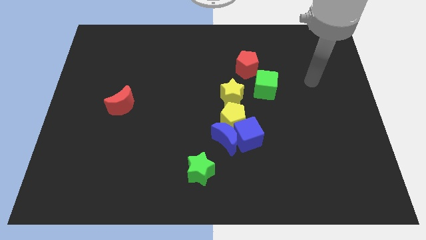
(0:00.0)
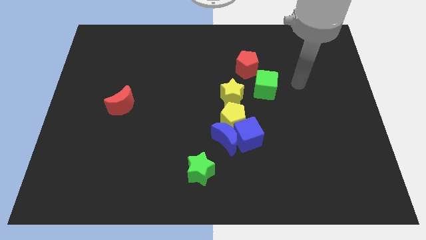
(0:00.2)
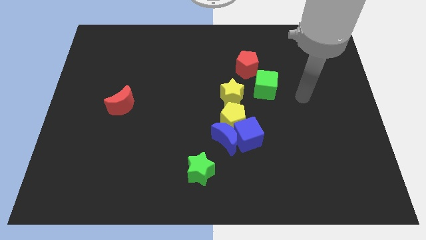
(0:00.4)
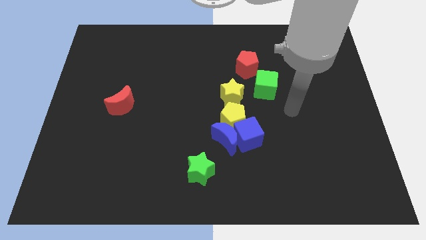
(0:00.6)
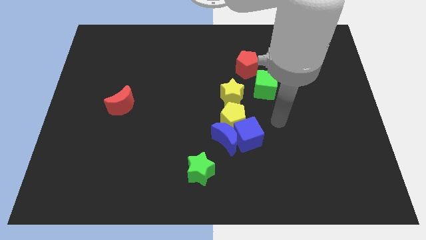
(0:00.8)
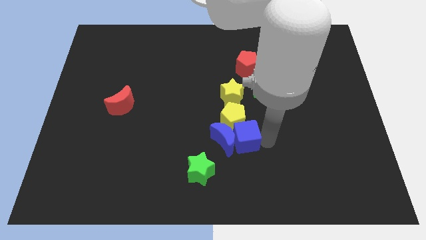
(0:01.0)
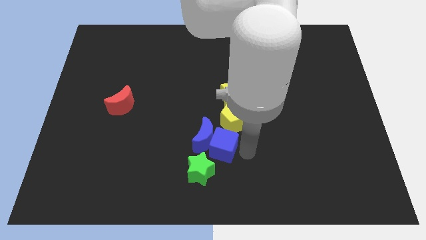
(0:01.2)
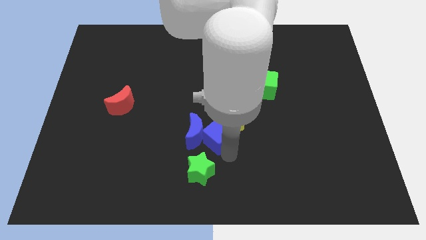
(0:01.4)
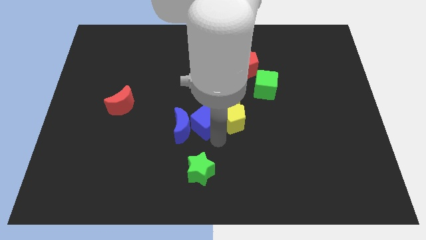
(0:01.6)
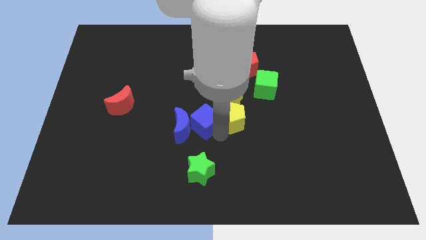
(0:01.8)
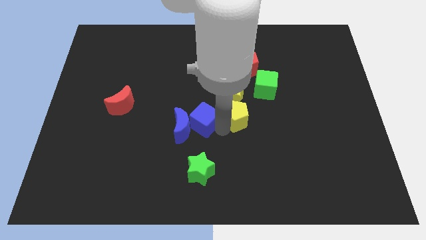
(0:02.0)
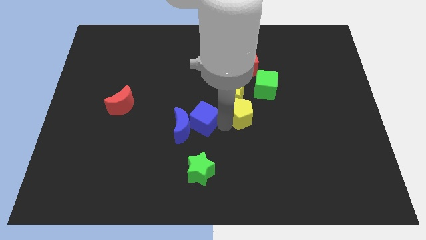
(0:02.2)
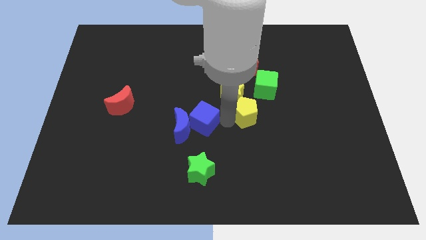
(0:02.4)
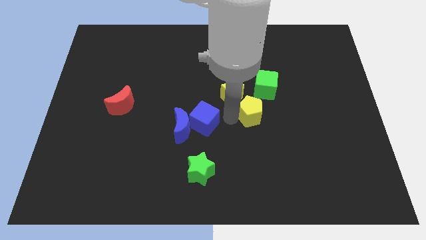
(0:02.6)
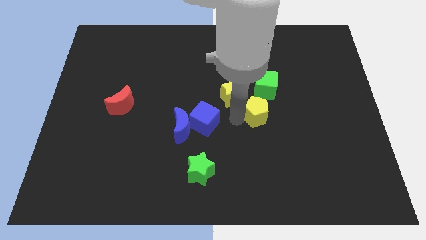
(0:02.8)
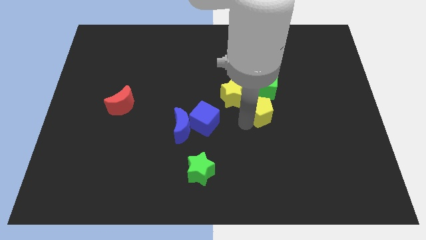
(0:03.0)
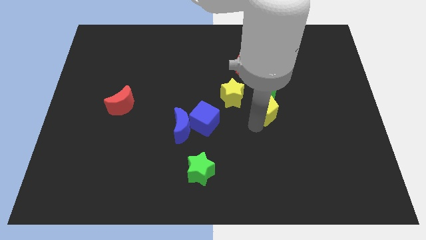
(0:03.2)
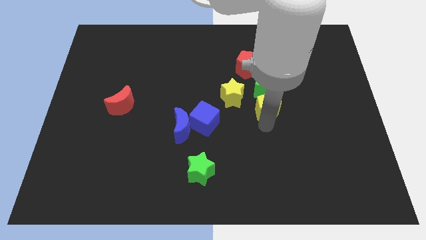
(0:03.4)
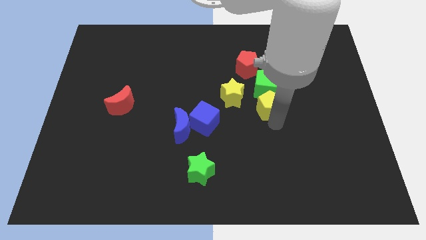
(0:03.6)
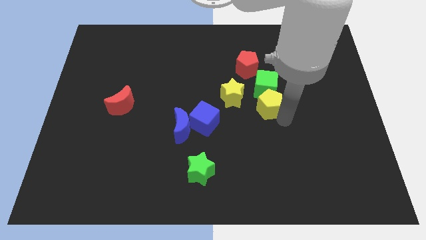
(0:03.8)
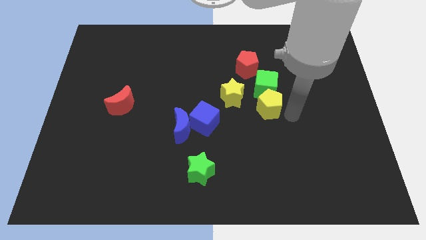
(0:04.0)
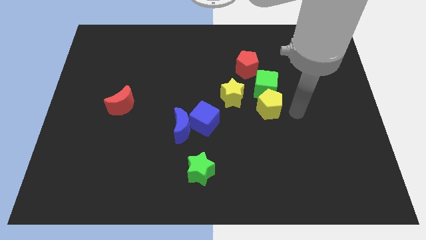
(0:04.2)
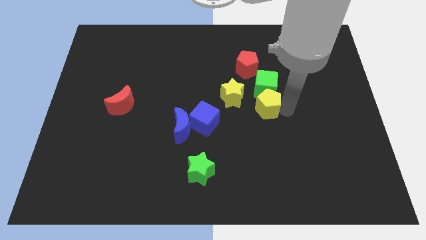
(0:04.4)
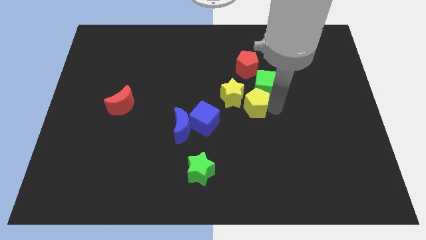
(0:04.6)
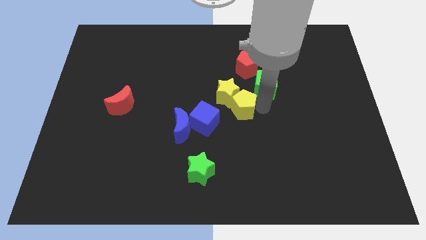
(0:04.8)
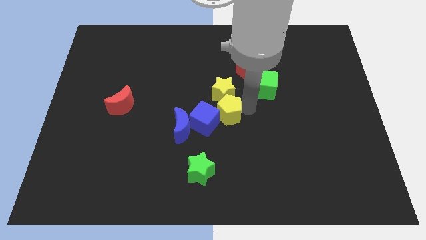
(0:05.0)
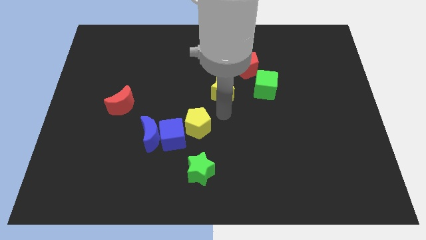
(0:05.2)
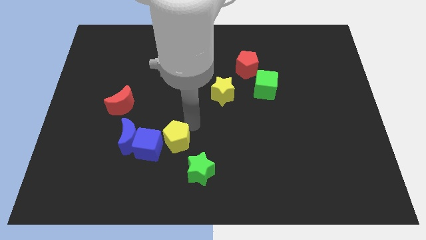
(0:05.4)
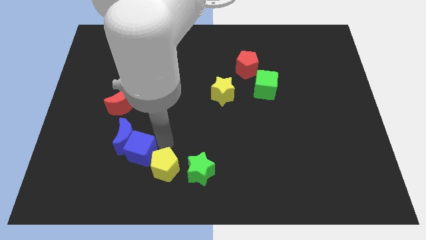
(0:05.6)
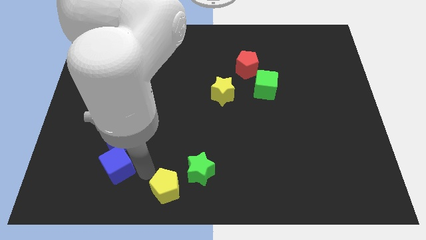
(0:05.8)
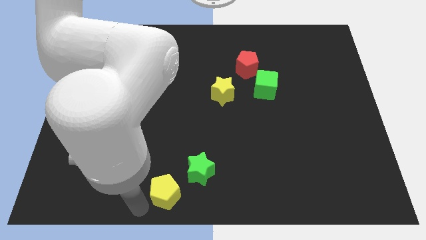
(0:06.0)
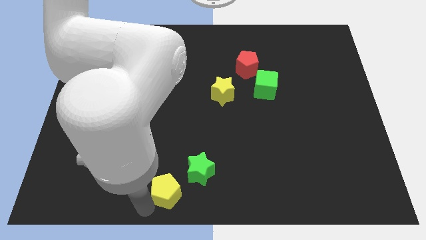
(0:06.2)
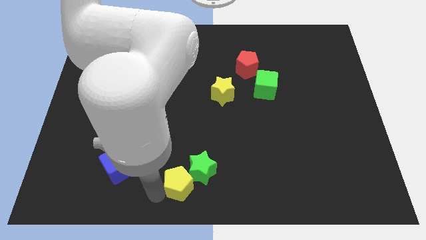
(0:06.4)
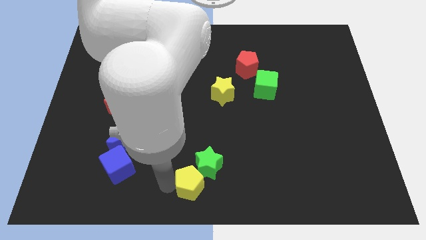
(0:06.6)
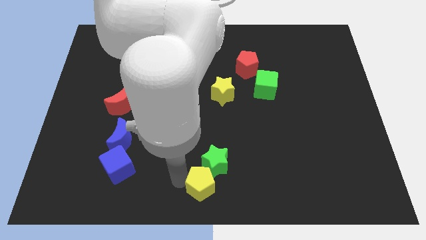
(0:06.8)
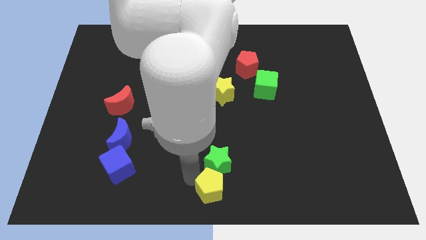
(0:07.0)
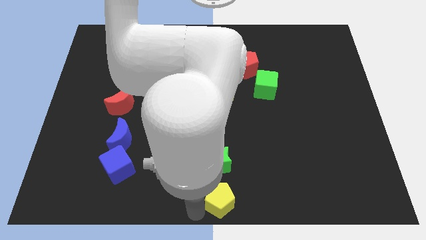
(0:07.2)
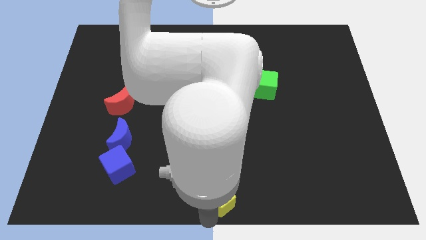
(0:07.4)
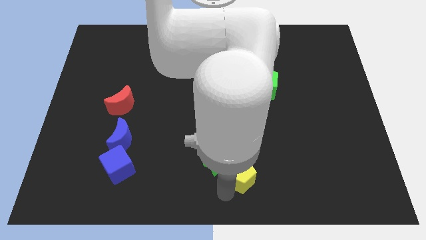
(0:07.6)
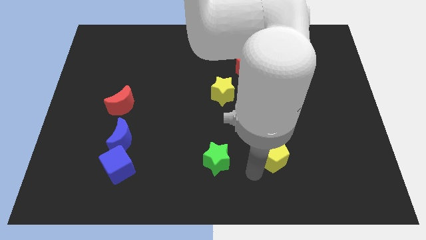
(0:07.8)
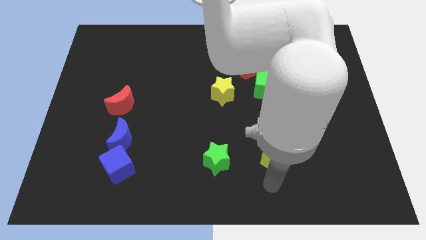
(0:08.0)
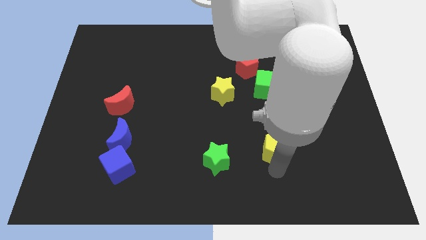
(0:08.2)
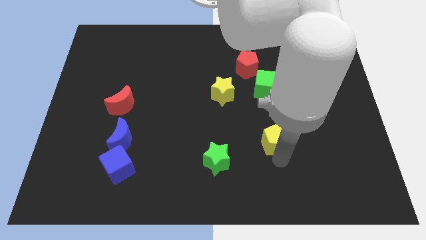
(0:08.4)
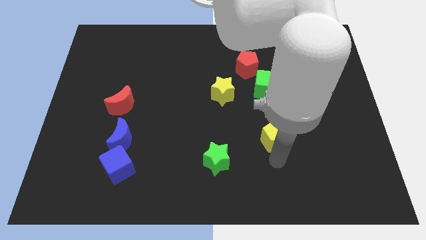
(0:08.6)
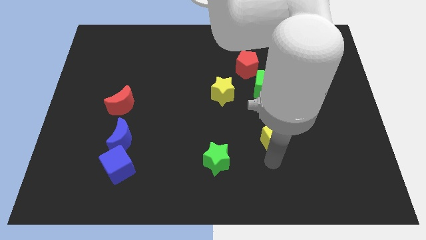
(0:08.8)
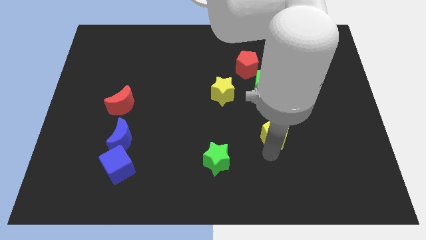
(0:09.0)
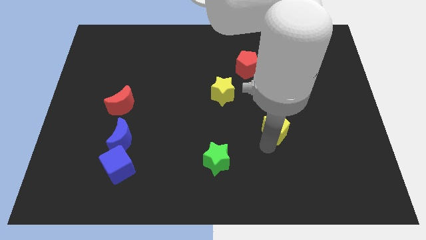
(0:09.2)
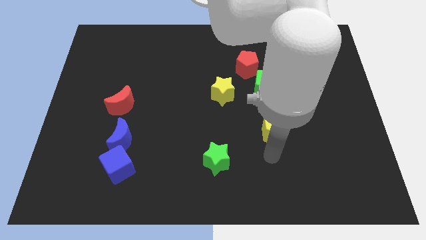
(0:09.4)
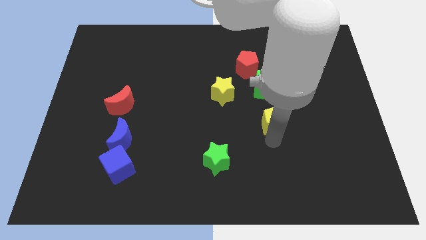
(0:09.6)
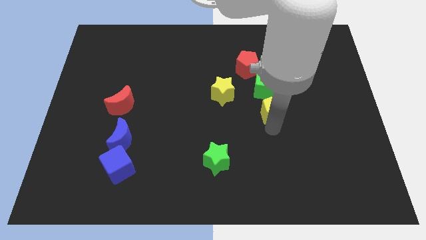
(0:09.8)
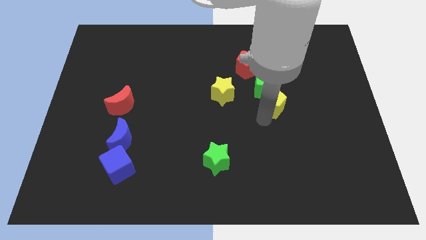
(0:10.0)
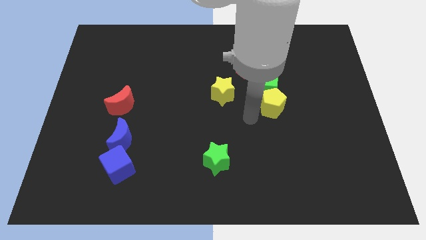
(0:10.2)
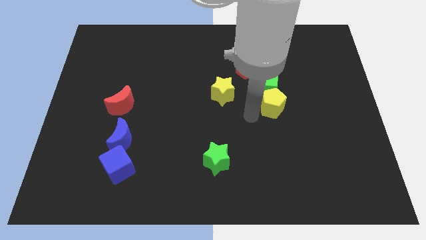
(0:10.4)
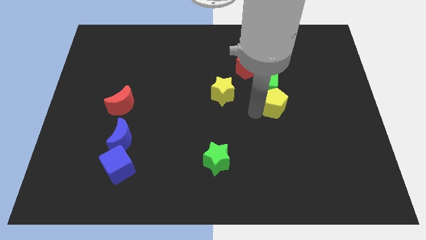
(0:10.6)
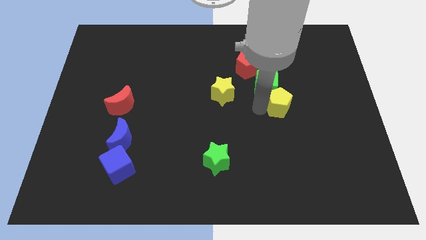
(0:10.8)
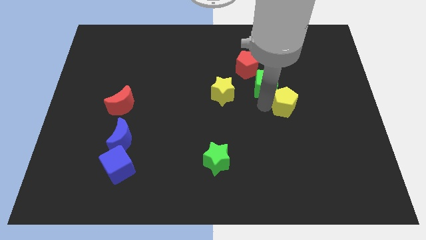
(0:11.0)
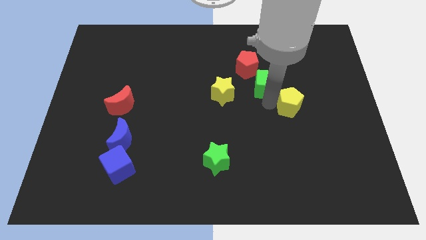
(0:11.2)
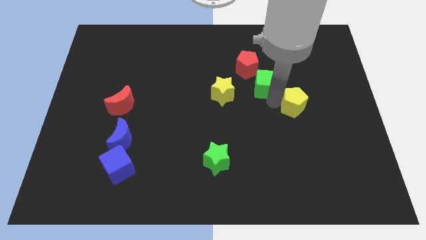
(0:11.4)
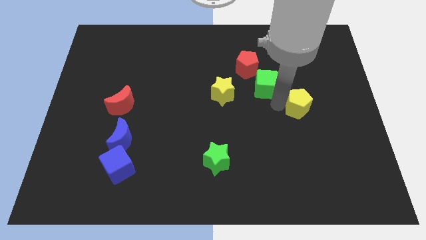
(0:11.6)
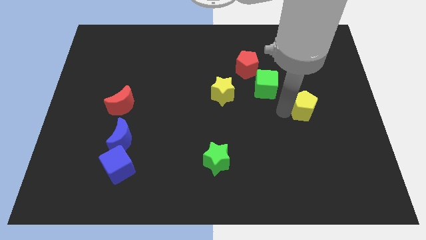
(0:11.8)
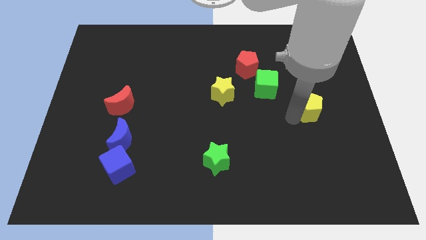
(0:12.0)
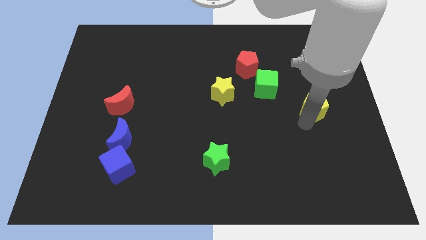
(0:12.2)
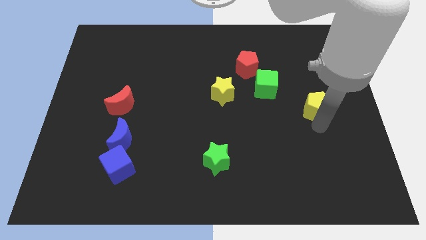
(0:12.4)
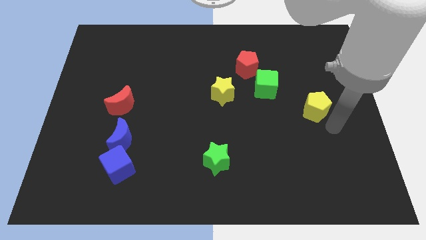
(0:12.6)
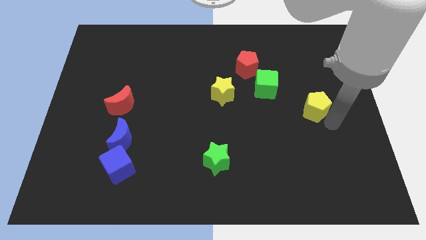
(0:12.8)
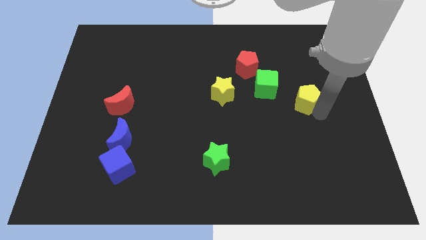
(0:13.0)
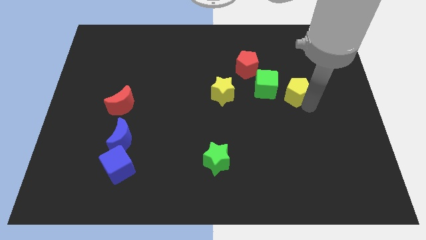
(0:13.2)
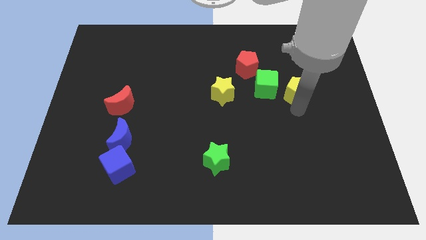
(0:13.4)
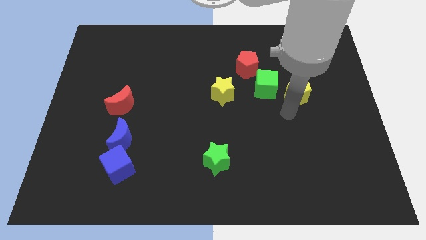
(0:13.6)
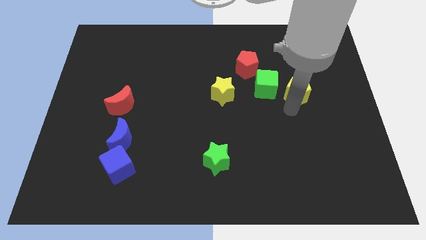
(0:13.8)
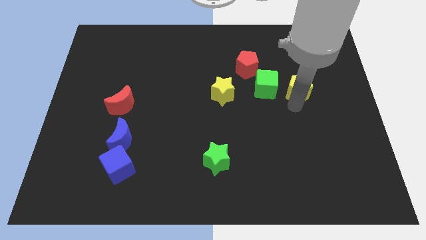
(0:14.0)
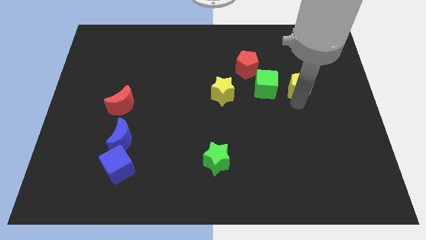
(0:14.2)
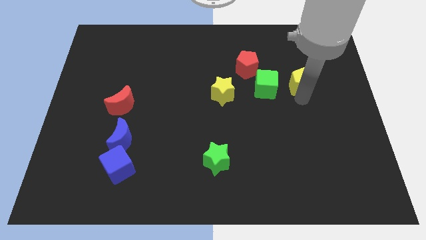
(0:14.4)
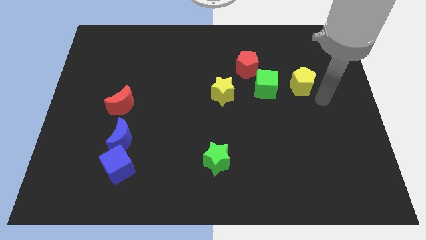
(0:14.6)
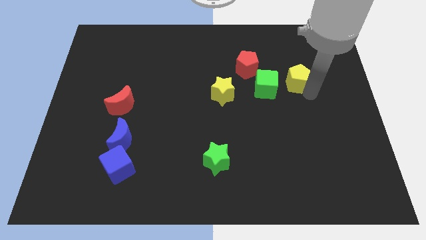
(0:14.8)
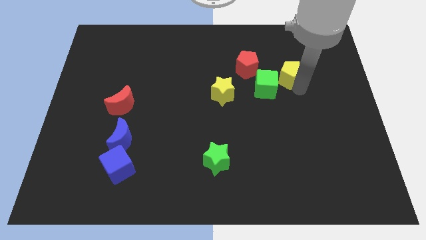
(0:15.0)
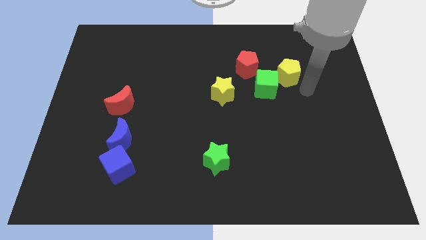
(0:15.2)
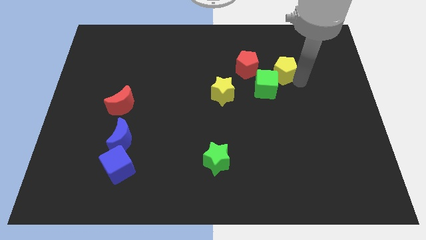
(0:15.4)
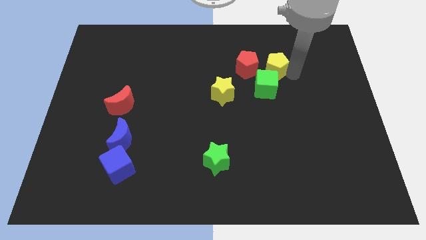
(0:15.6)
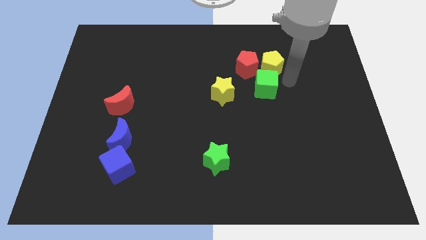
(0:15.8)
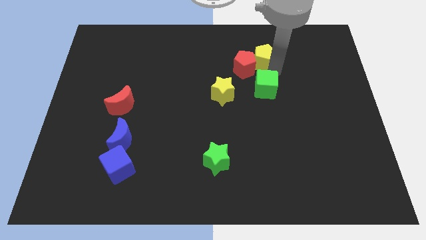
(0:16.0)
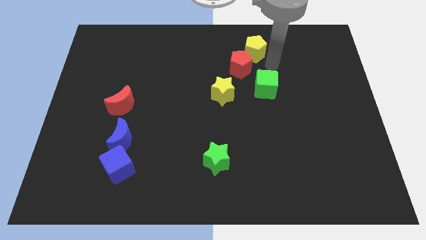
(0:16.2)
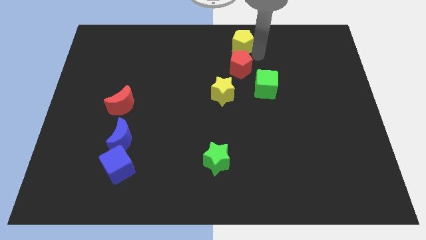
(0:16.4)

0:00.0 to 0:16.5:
put the yellow pentagon to the towards your base
